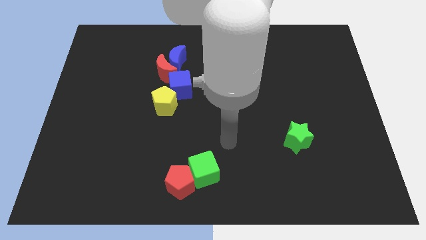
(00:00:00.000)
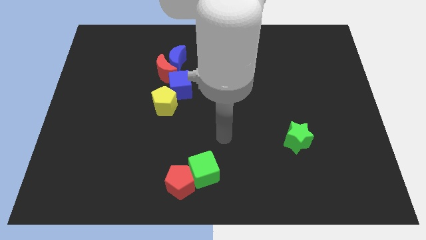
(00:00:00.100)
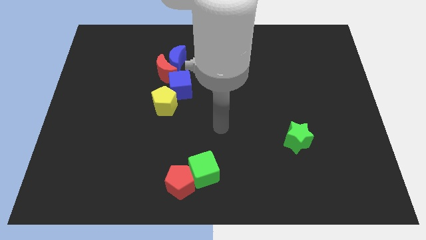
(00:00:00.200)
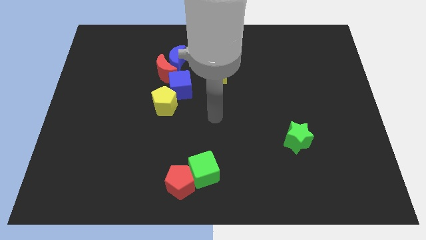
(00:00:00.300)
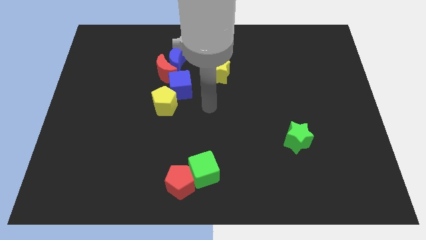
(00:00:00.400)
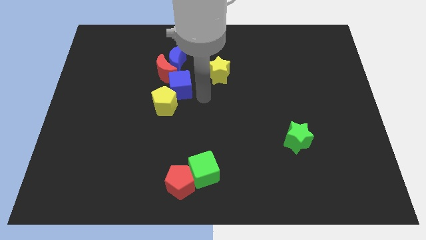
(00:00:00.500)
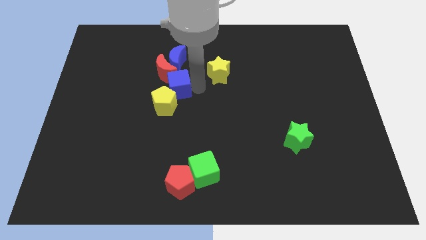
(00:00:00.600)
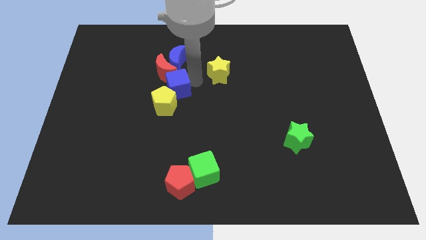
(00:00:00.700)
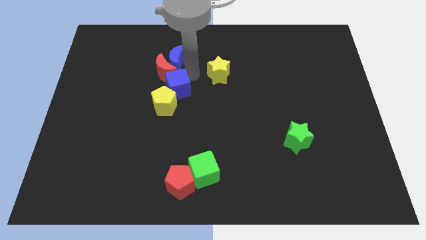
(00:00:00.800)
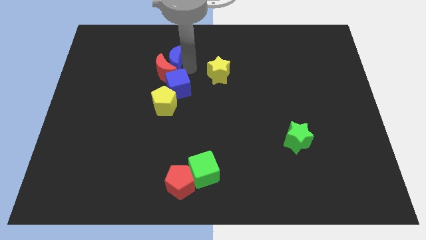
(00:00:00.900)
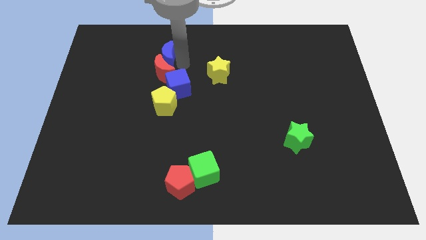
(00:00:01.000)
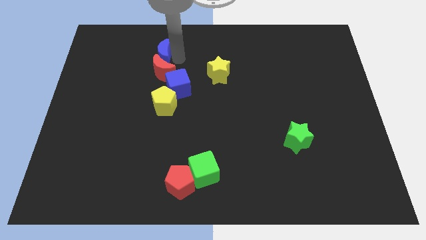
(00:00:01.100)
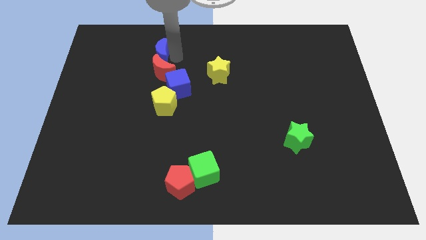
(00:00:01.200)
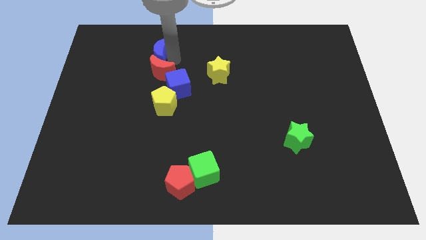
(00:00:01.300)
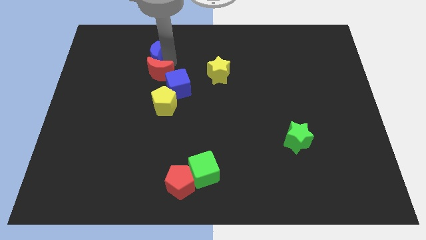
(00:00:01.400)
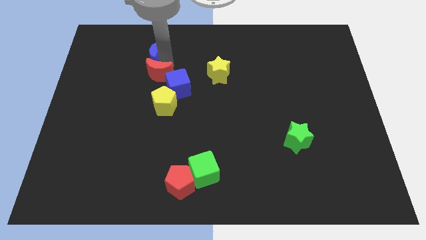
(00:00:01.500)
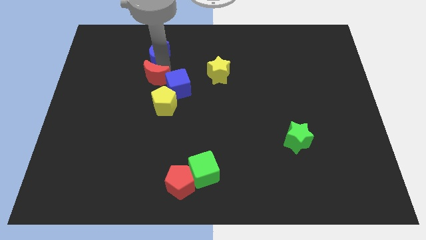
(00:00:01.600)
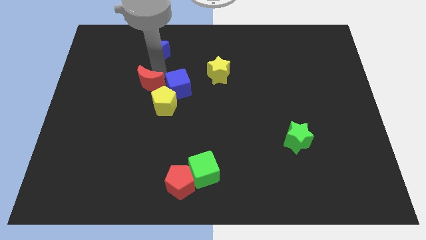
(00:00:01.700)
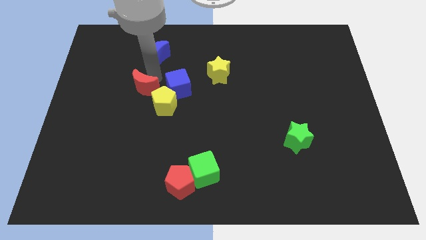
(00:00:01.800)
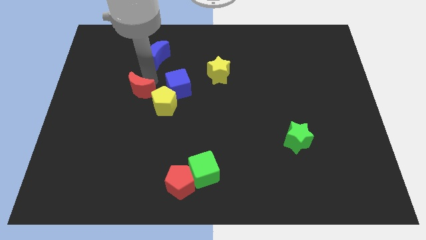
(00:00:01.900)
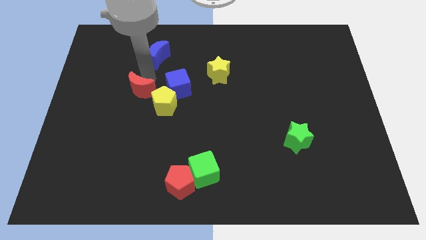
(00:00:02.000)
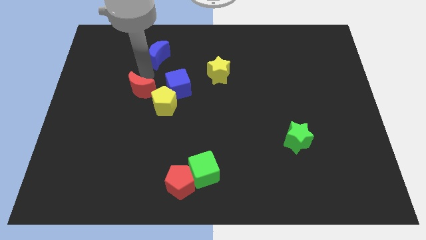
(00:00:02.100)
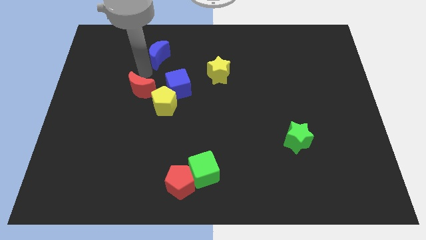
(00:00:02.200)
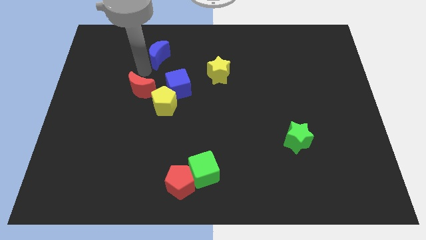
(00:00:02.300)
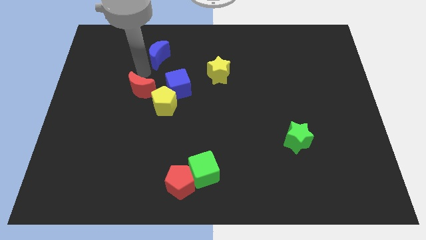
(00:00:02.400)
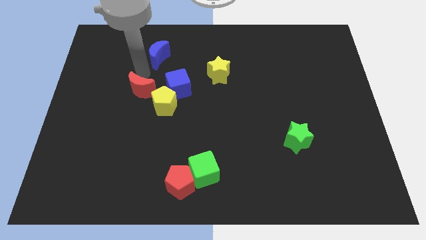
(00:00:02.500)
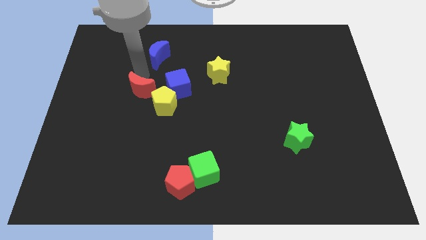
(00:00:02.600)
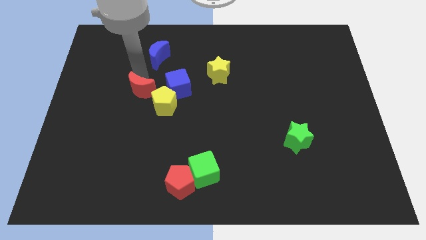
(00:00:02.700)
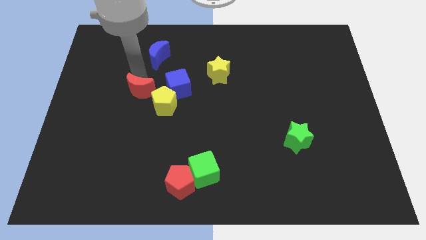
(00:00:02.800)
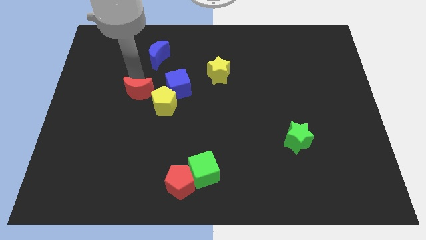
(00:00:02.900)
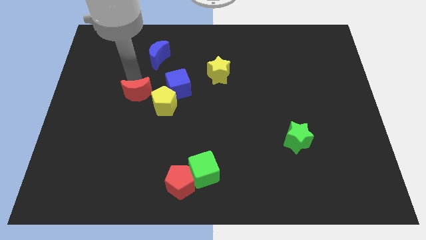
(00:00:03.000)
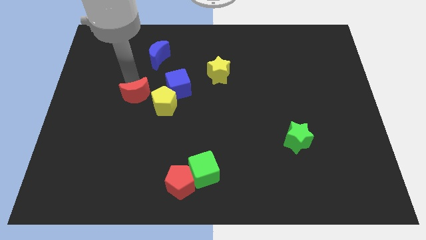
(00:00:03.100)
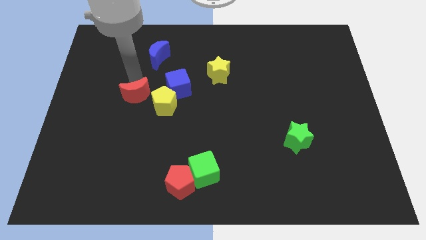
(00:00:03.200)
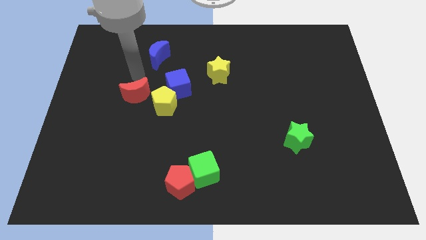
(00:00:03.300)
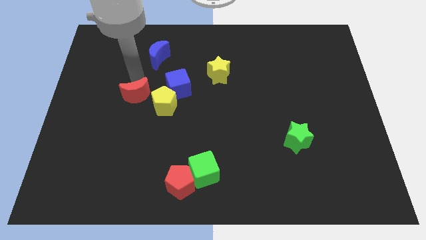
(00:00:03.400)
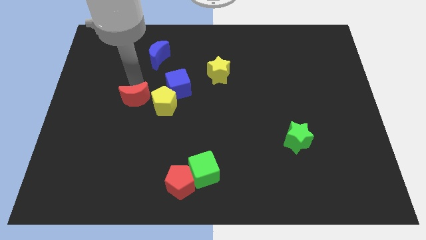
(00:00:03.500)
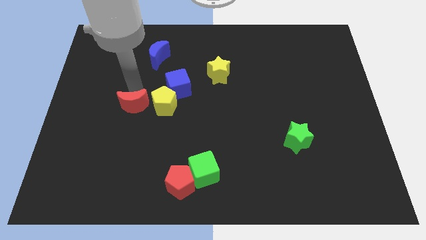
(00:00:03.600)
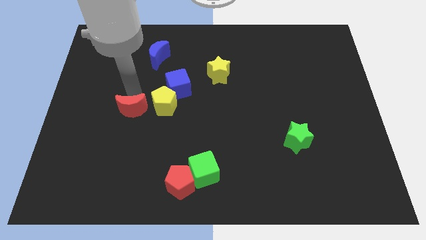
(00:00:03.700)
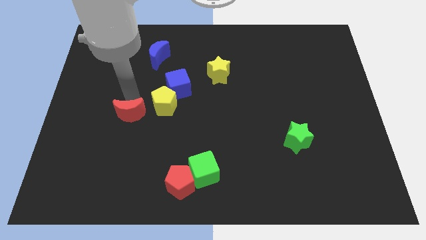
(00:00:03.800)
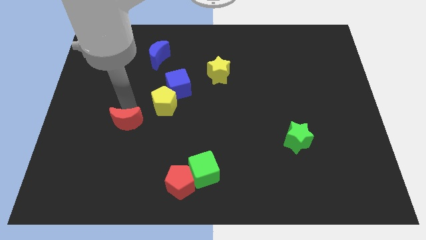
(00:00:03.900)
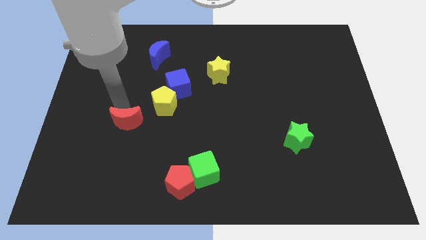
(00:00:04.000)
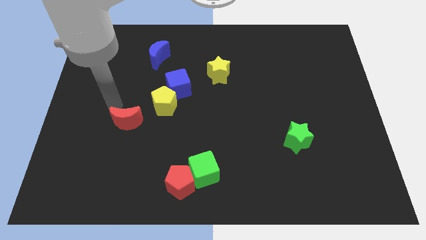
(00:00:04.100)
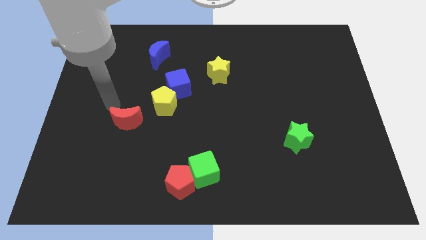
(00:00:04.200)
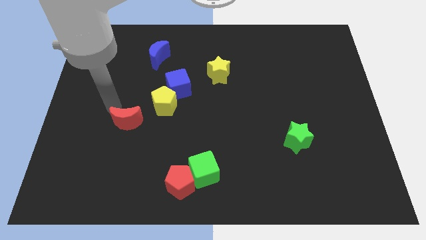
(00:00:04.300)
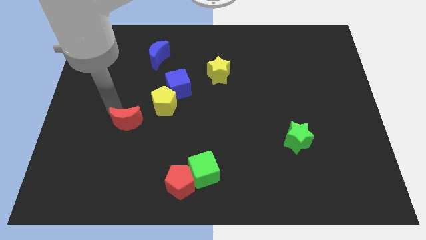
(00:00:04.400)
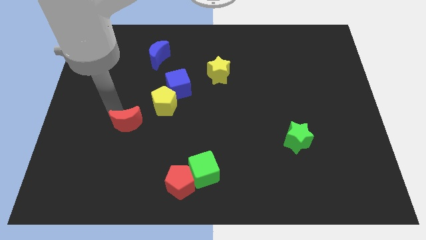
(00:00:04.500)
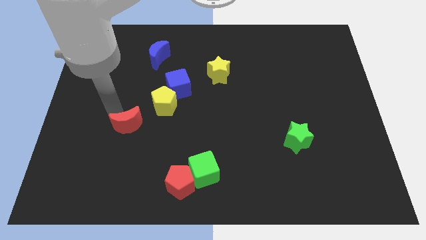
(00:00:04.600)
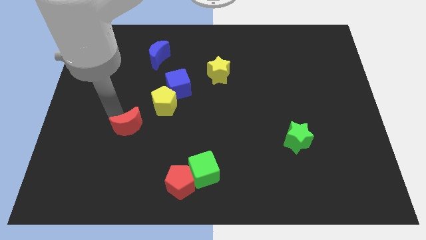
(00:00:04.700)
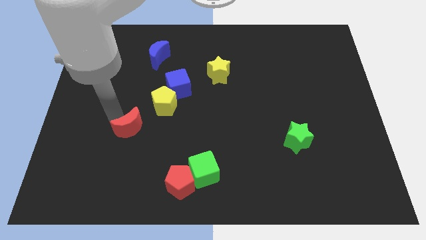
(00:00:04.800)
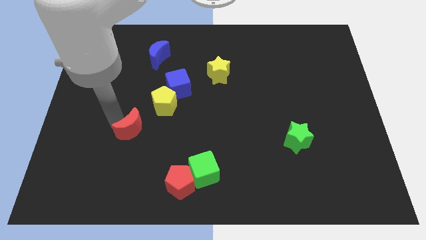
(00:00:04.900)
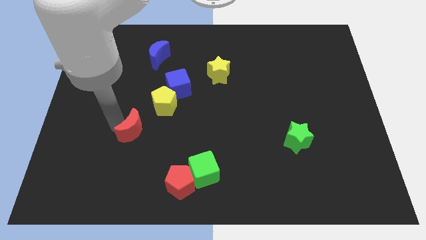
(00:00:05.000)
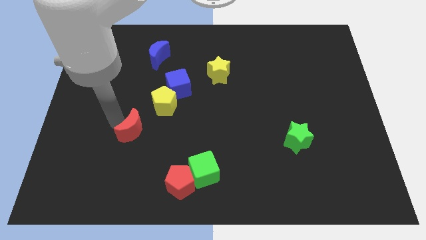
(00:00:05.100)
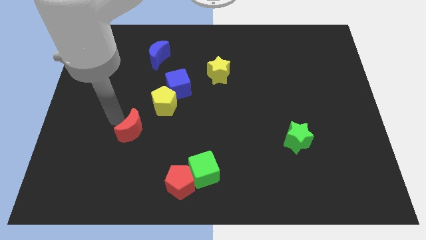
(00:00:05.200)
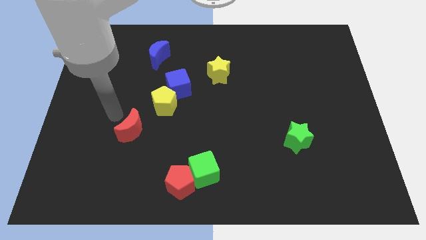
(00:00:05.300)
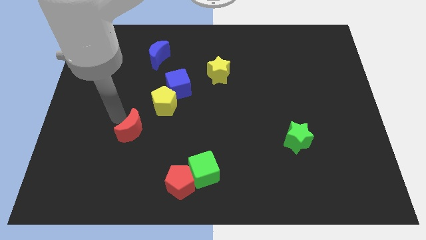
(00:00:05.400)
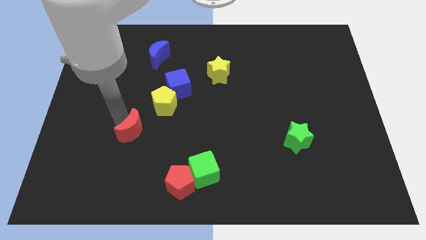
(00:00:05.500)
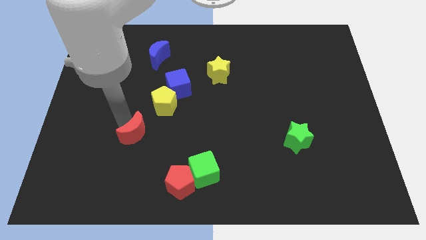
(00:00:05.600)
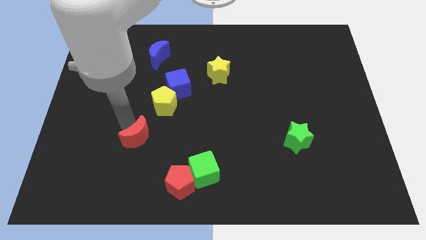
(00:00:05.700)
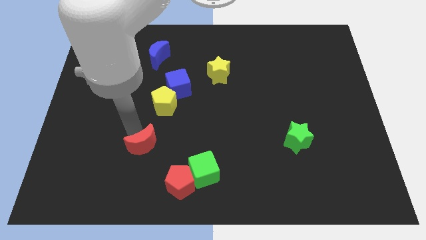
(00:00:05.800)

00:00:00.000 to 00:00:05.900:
push the red moon diagonally up and to the left of the red pentagon

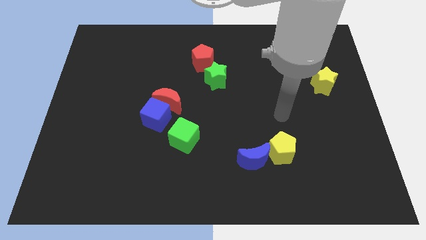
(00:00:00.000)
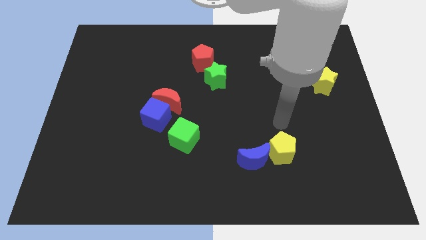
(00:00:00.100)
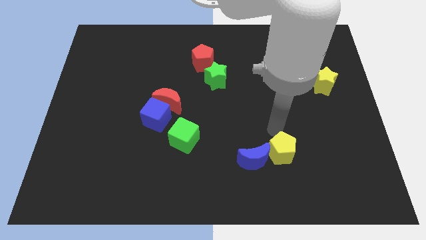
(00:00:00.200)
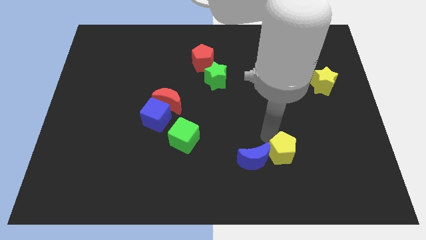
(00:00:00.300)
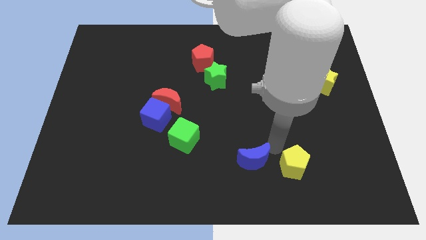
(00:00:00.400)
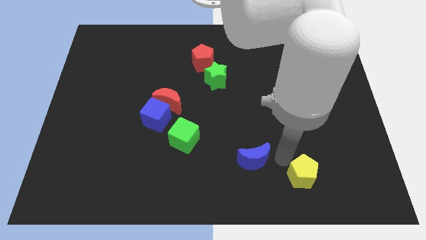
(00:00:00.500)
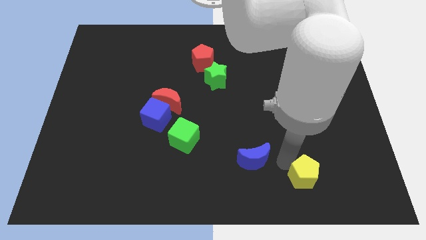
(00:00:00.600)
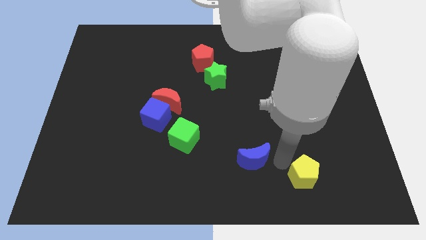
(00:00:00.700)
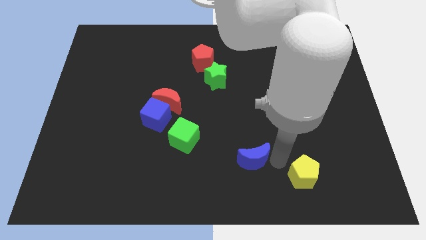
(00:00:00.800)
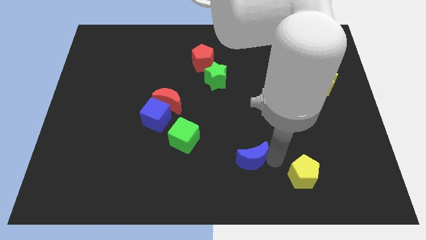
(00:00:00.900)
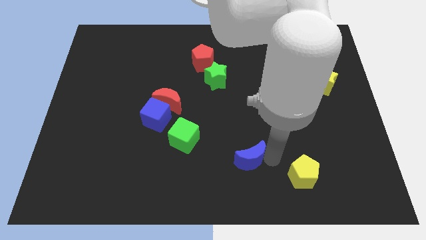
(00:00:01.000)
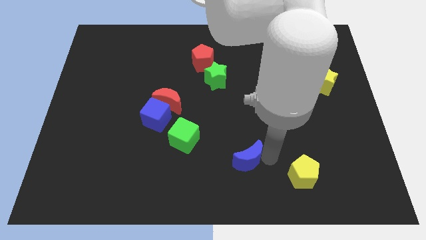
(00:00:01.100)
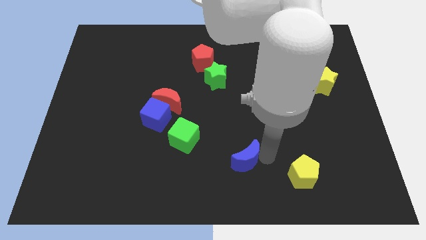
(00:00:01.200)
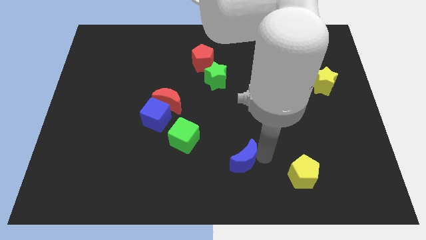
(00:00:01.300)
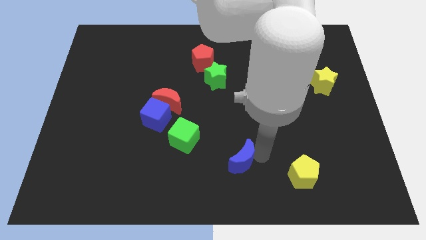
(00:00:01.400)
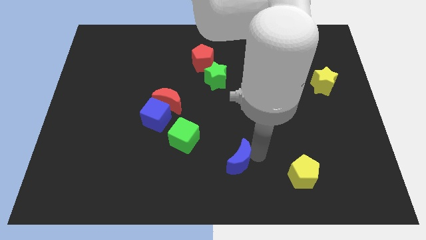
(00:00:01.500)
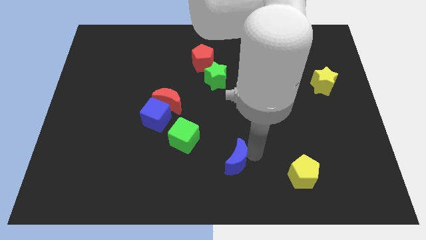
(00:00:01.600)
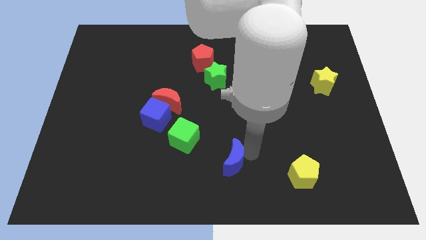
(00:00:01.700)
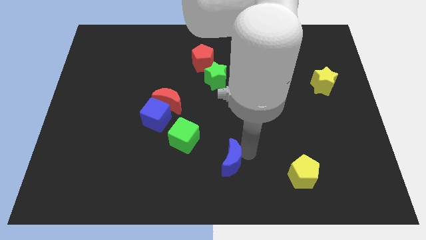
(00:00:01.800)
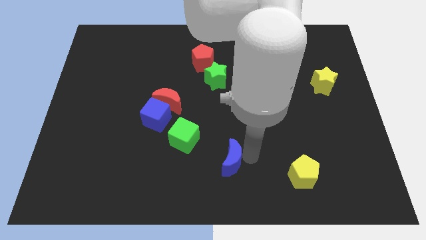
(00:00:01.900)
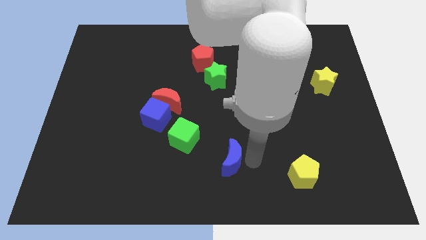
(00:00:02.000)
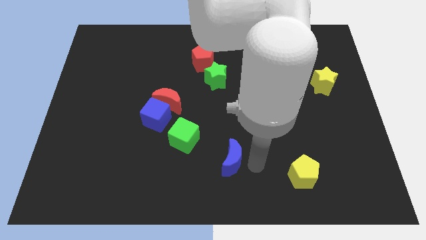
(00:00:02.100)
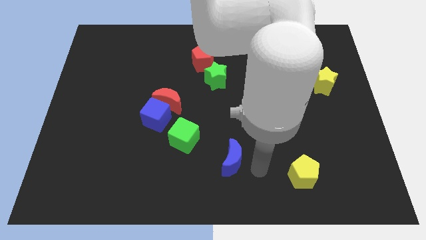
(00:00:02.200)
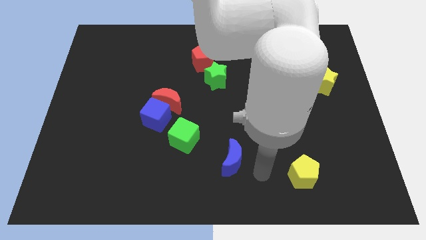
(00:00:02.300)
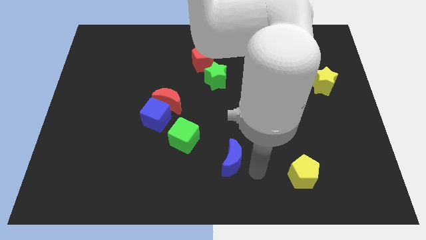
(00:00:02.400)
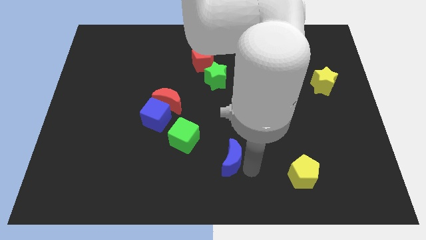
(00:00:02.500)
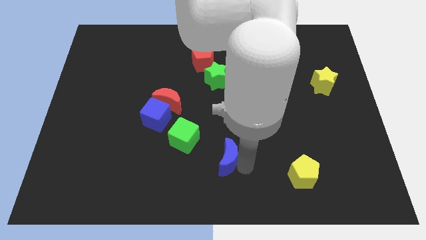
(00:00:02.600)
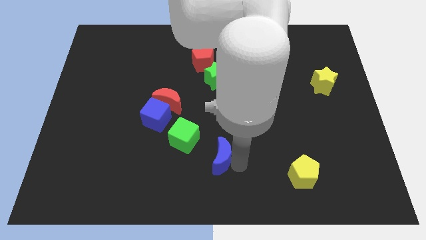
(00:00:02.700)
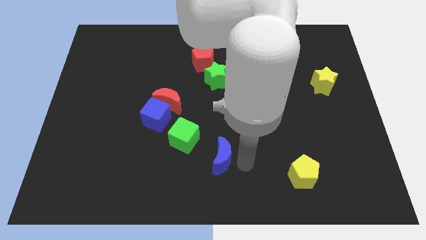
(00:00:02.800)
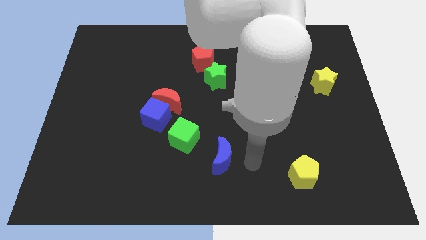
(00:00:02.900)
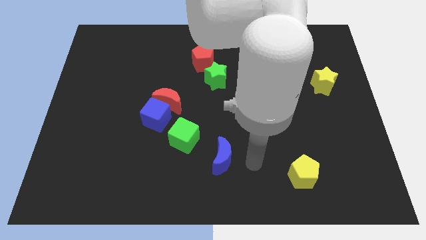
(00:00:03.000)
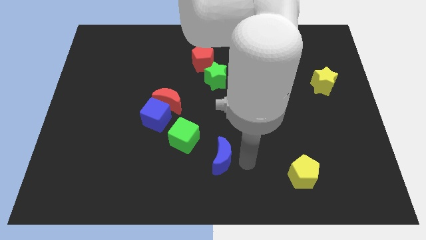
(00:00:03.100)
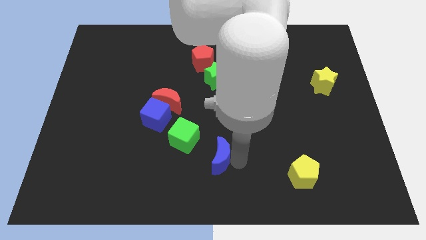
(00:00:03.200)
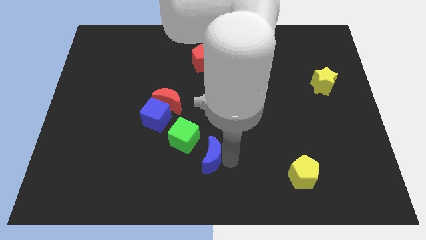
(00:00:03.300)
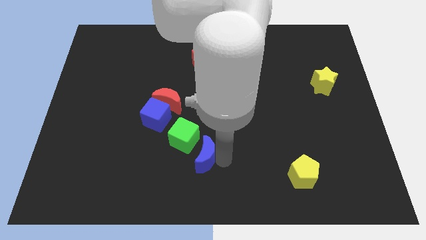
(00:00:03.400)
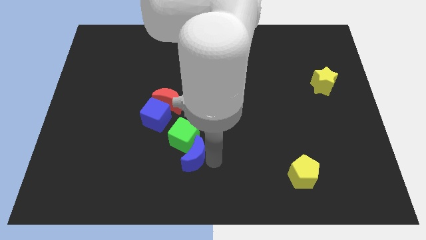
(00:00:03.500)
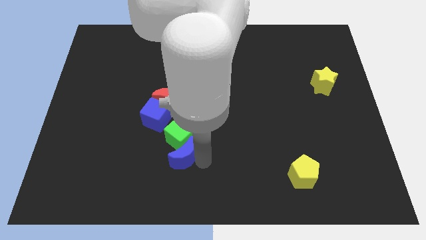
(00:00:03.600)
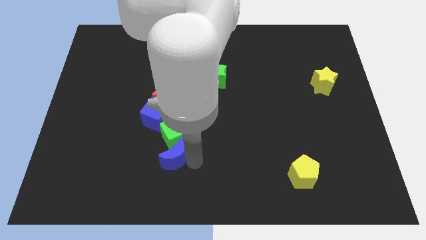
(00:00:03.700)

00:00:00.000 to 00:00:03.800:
put the blue moon to the bottom side of the red moon
